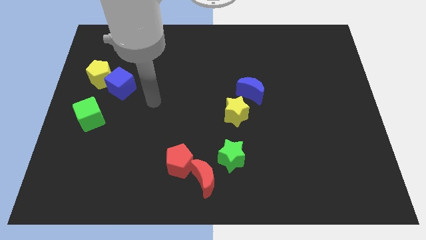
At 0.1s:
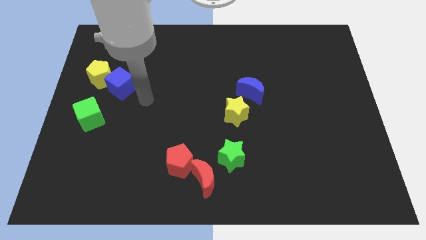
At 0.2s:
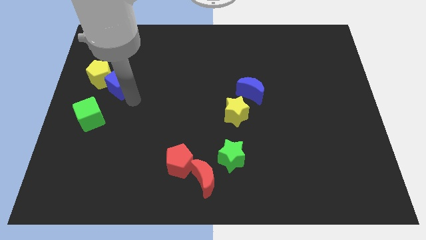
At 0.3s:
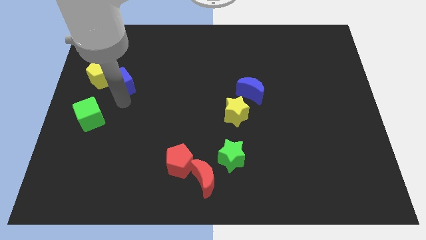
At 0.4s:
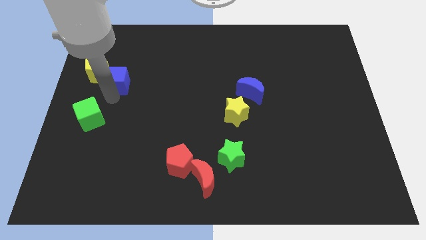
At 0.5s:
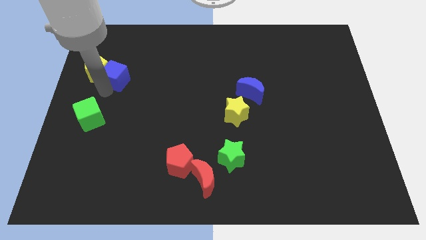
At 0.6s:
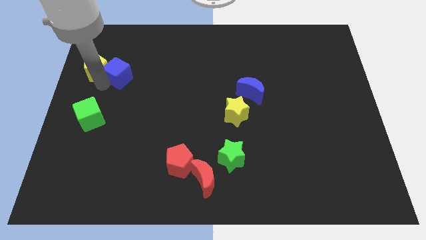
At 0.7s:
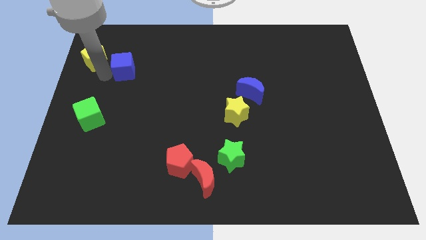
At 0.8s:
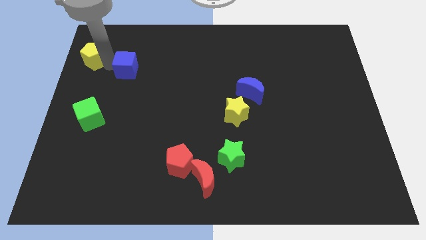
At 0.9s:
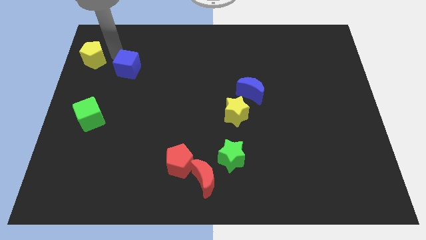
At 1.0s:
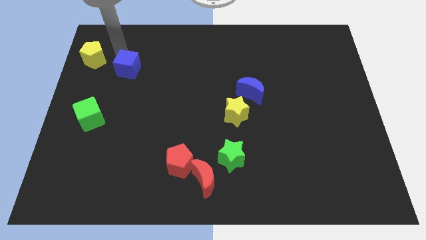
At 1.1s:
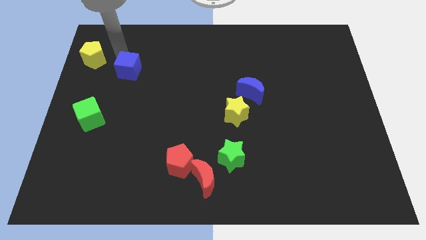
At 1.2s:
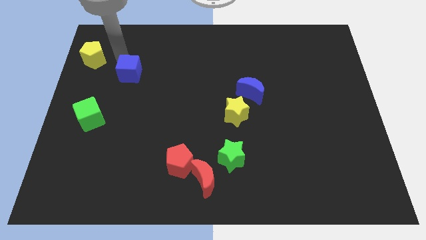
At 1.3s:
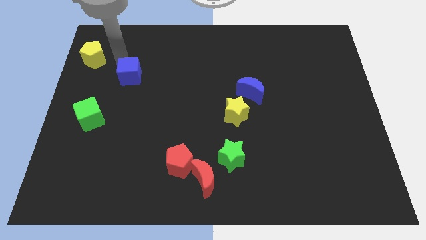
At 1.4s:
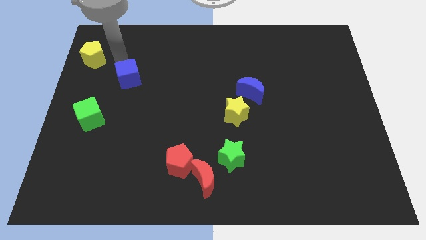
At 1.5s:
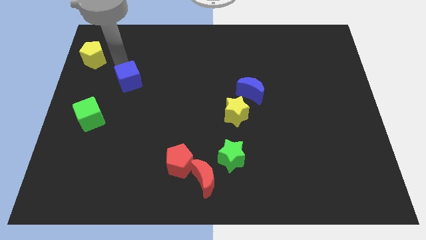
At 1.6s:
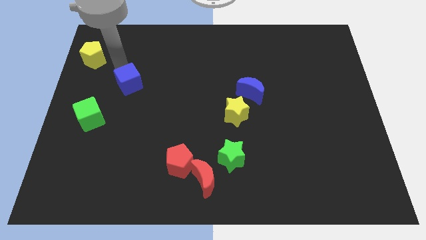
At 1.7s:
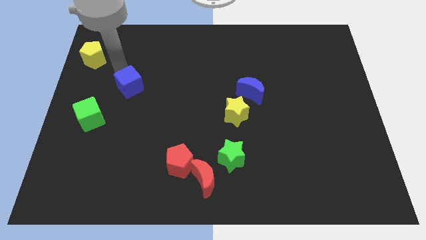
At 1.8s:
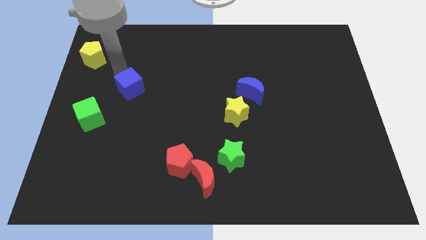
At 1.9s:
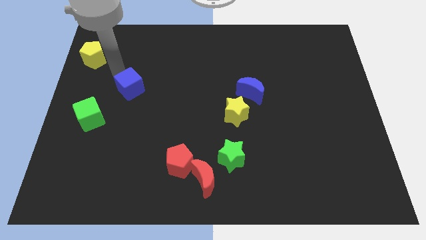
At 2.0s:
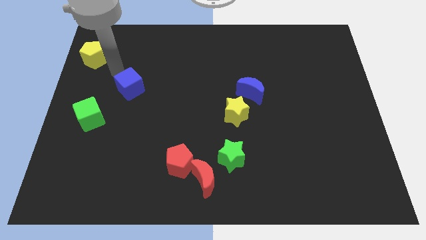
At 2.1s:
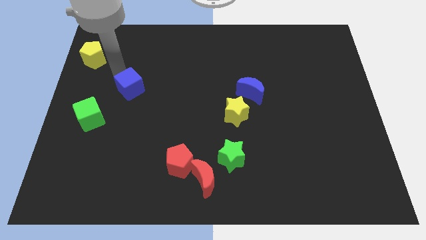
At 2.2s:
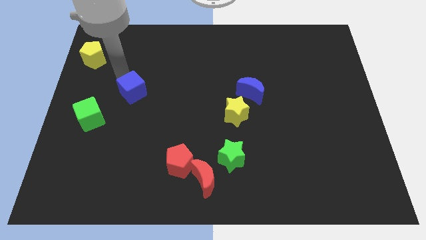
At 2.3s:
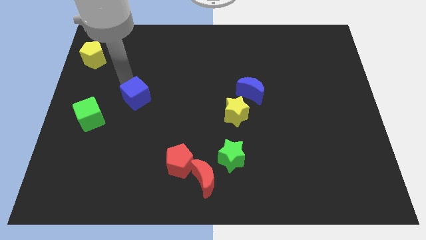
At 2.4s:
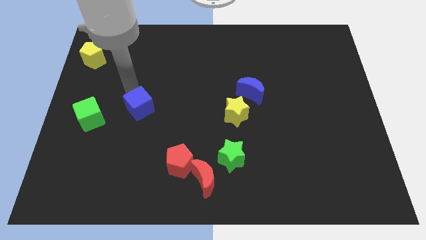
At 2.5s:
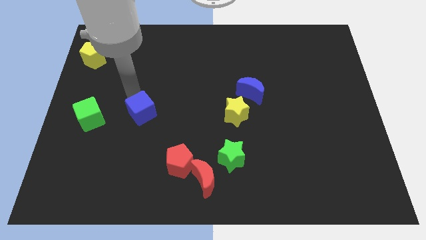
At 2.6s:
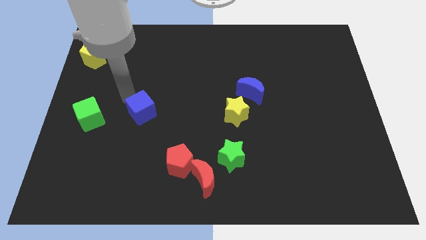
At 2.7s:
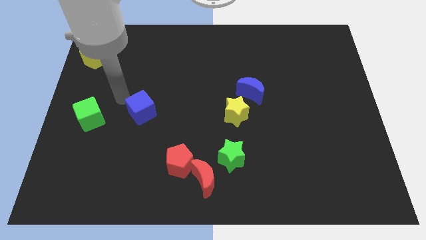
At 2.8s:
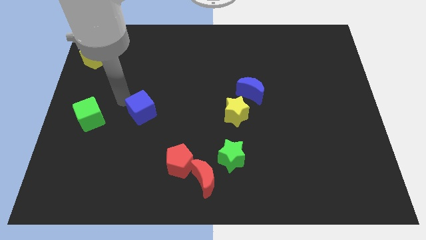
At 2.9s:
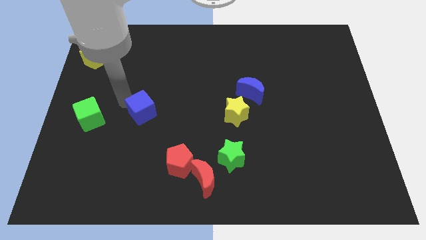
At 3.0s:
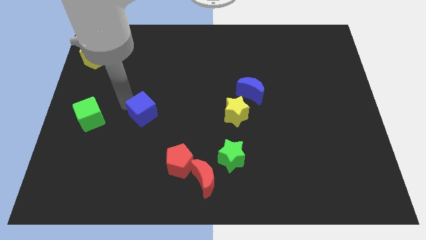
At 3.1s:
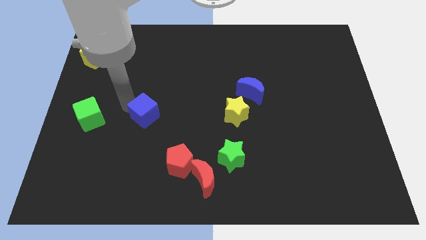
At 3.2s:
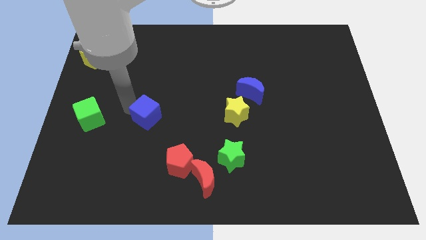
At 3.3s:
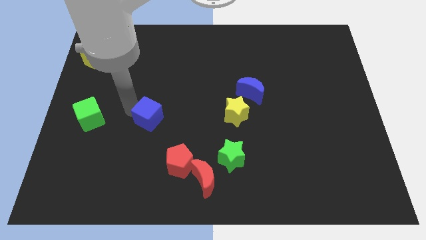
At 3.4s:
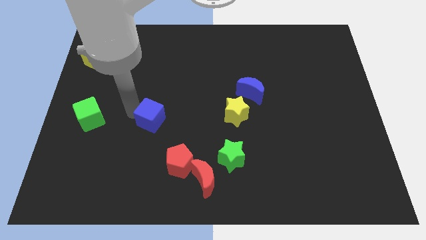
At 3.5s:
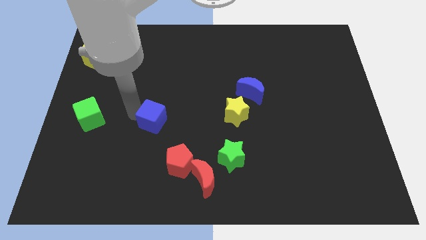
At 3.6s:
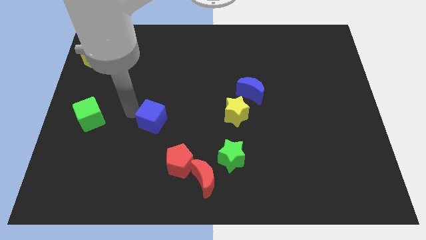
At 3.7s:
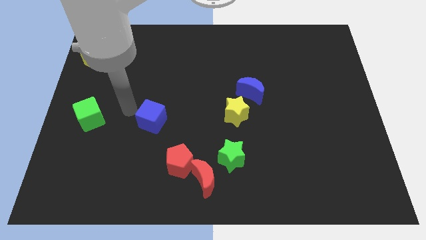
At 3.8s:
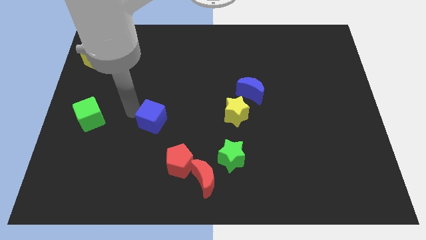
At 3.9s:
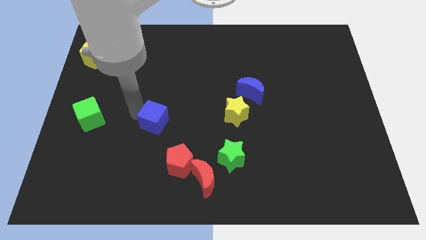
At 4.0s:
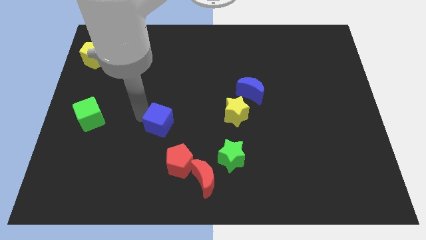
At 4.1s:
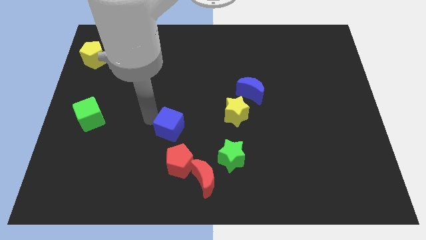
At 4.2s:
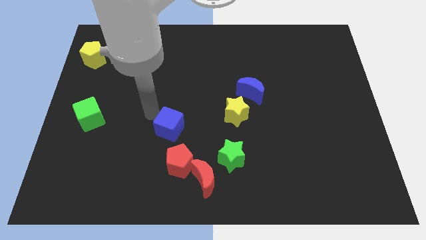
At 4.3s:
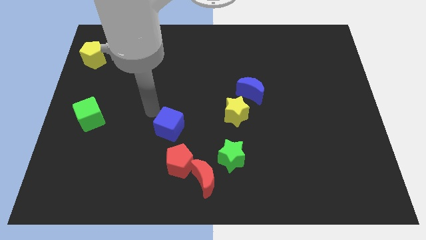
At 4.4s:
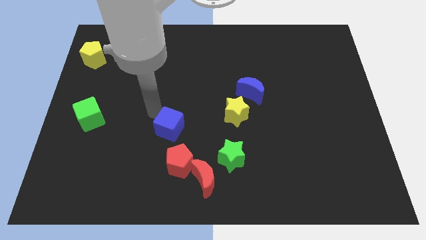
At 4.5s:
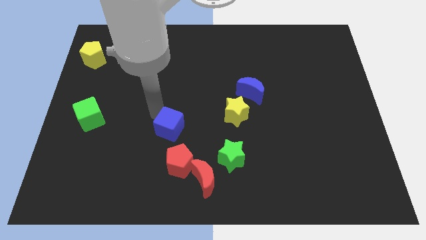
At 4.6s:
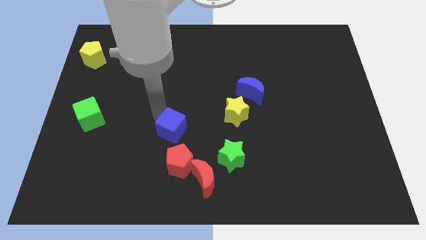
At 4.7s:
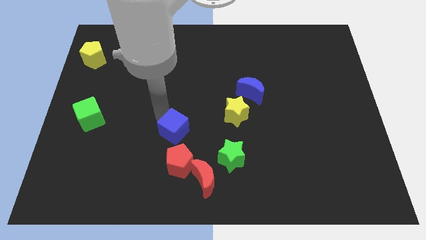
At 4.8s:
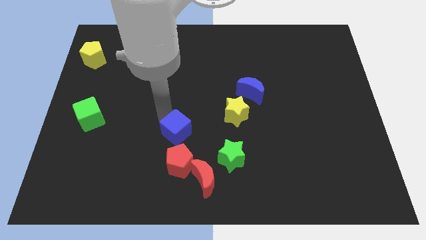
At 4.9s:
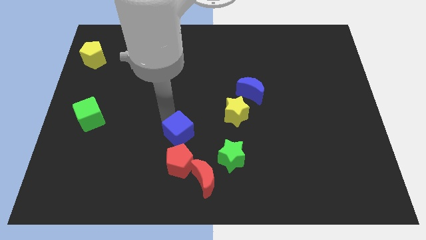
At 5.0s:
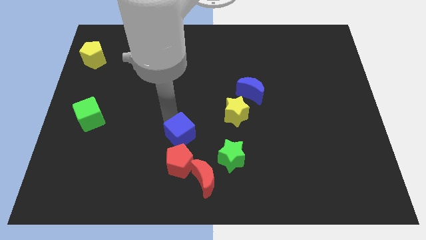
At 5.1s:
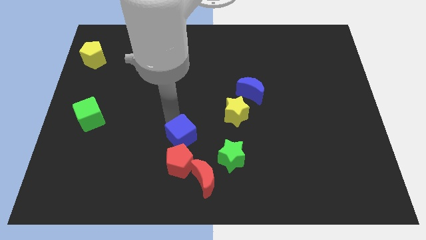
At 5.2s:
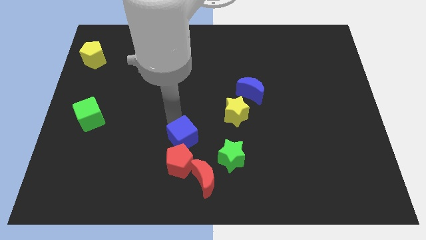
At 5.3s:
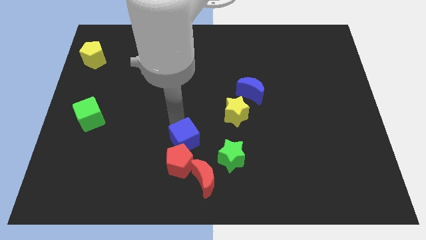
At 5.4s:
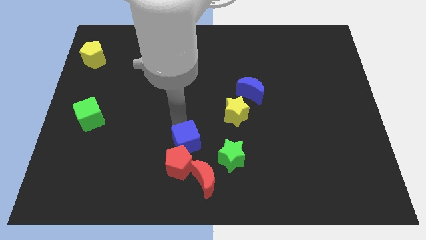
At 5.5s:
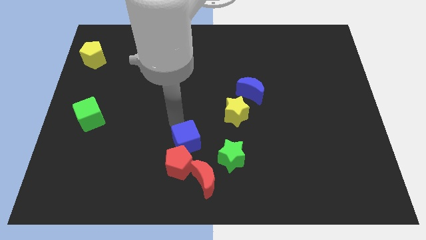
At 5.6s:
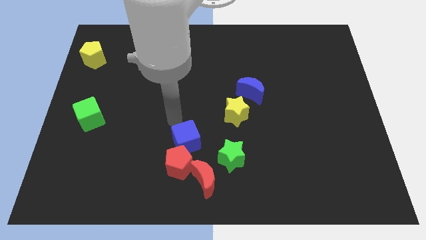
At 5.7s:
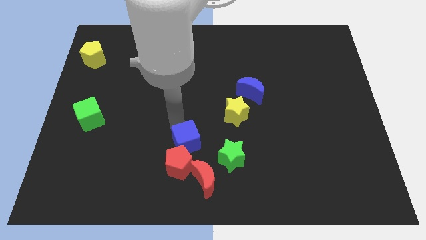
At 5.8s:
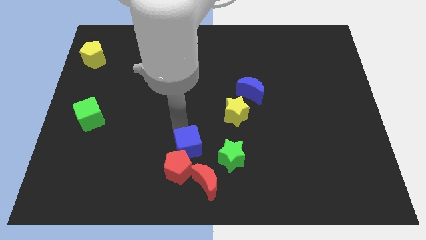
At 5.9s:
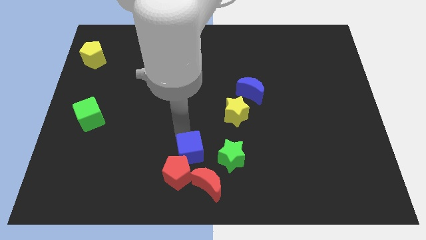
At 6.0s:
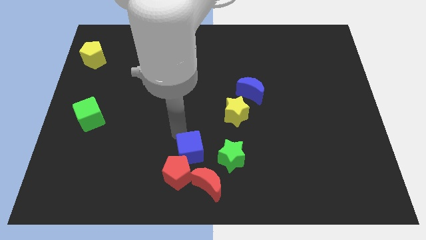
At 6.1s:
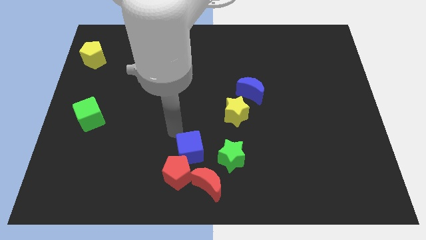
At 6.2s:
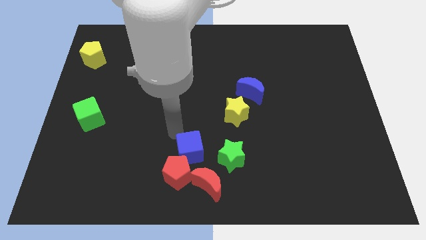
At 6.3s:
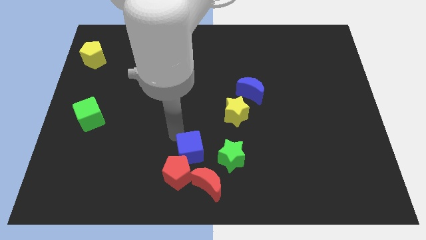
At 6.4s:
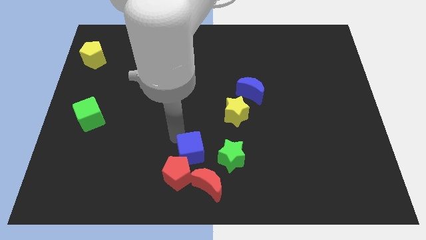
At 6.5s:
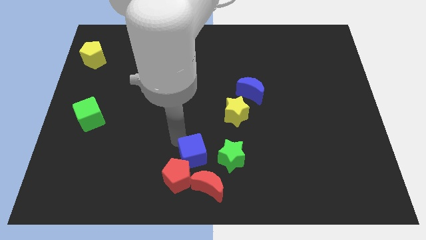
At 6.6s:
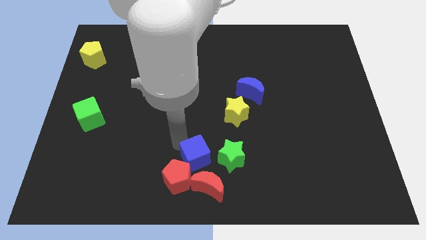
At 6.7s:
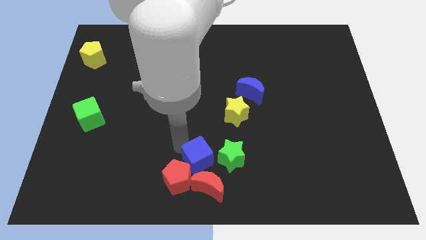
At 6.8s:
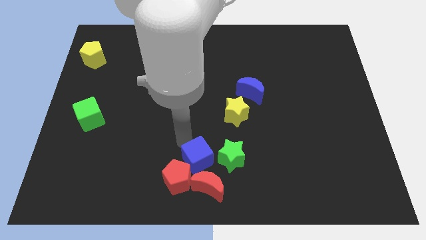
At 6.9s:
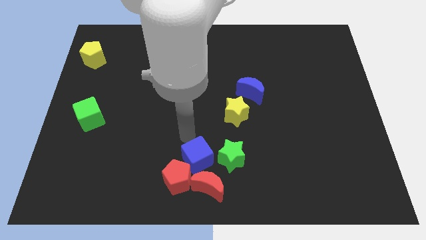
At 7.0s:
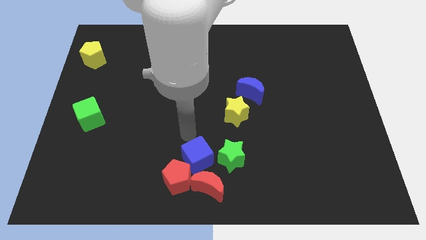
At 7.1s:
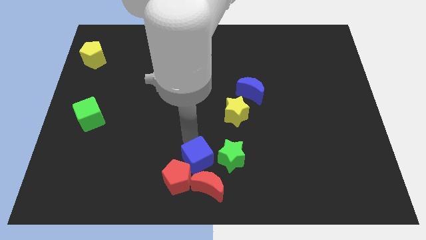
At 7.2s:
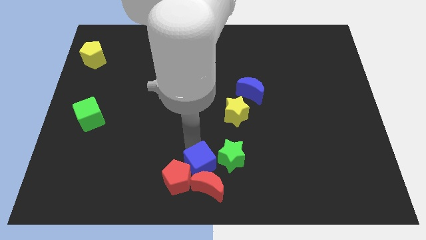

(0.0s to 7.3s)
move the blue cube close to the red moon
